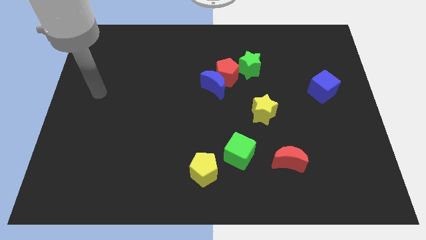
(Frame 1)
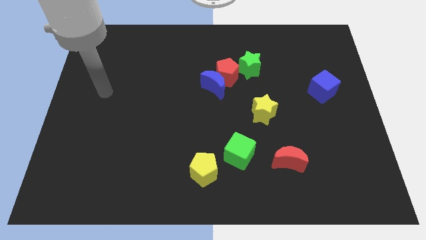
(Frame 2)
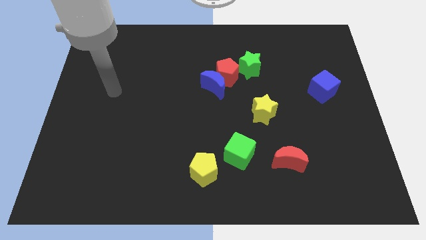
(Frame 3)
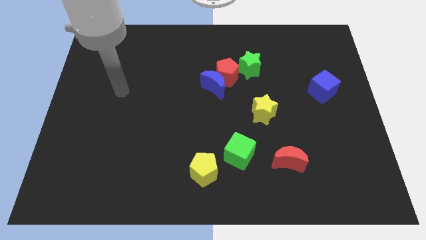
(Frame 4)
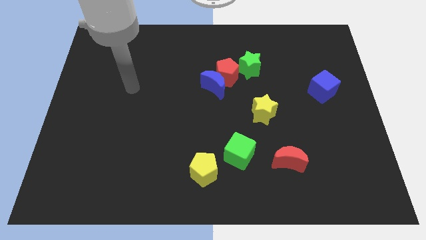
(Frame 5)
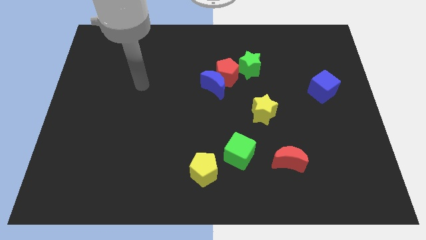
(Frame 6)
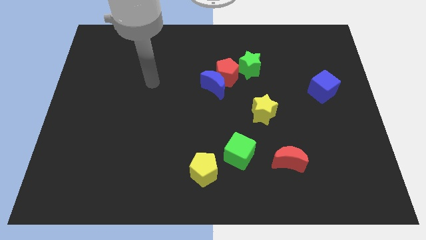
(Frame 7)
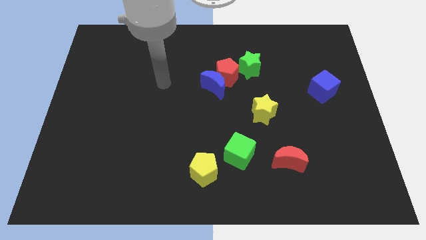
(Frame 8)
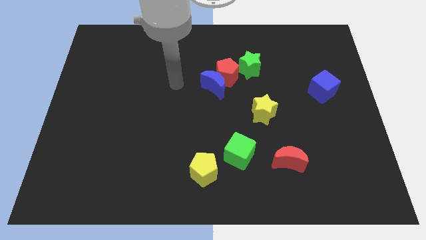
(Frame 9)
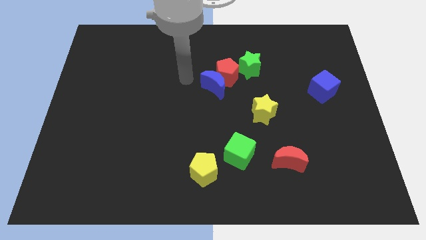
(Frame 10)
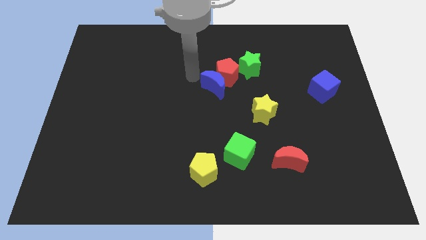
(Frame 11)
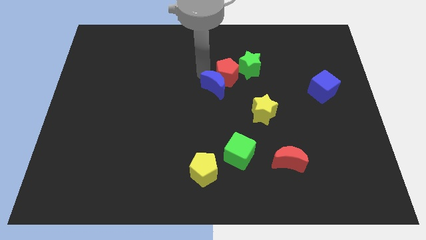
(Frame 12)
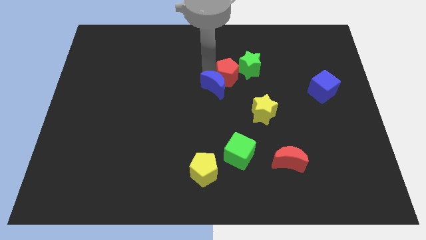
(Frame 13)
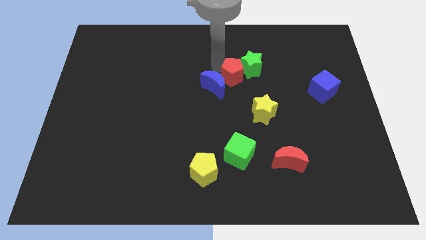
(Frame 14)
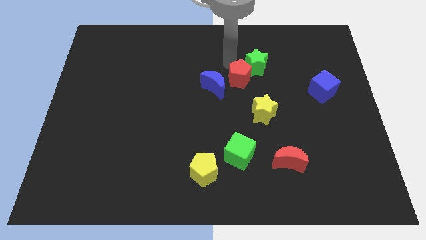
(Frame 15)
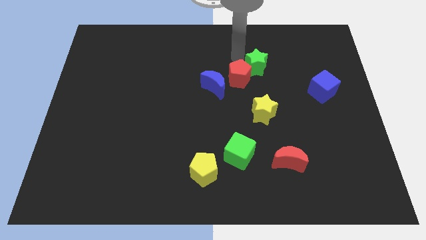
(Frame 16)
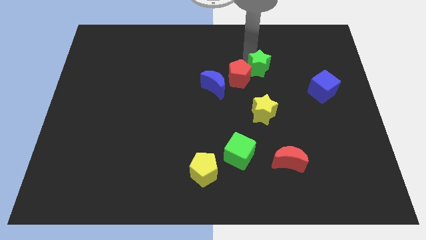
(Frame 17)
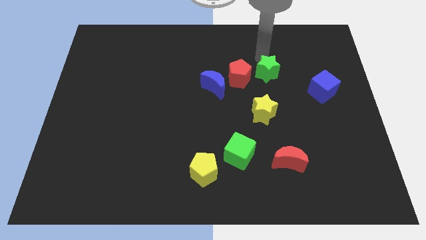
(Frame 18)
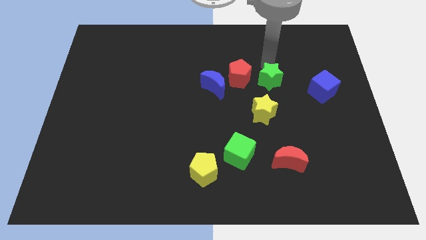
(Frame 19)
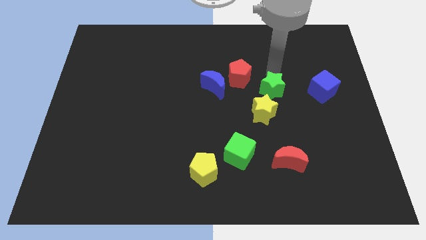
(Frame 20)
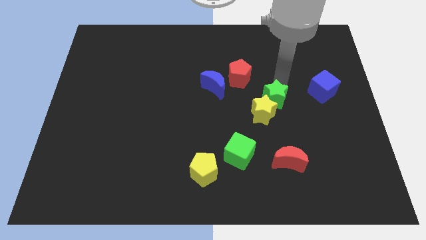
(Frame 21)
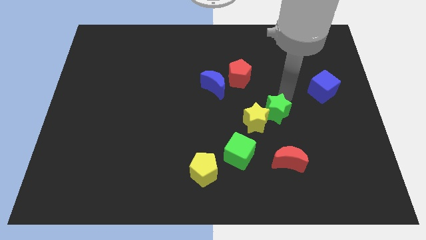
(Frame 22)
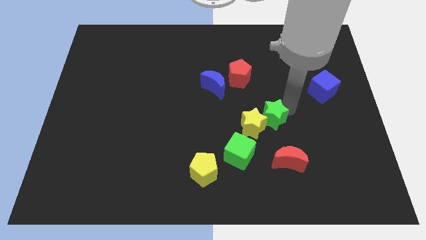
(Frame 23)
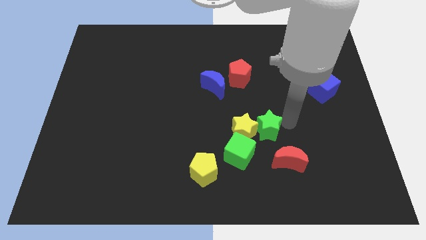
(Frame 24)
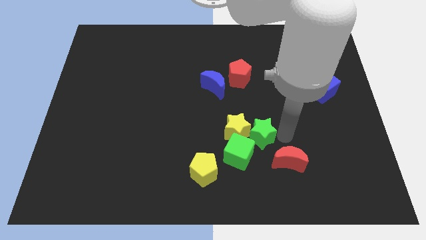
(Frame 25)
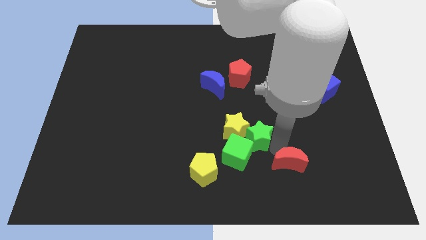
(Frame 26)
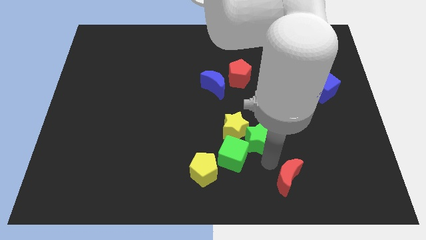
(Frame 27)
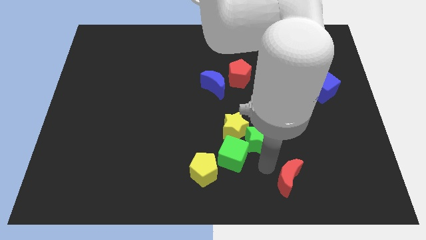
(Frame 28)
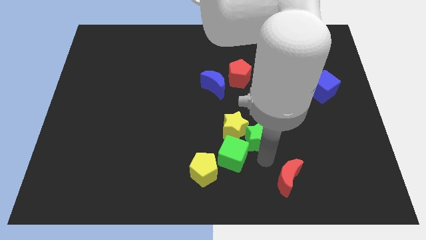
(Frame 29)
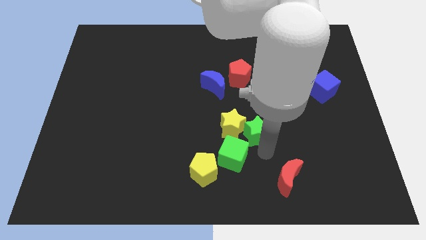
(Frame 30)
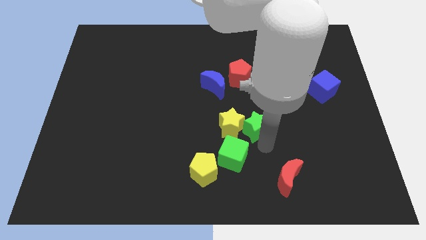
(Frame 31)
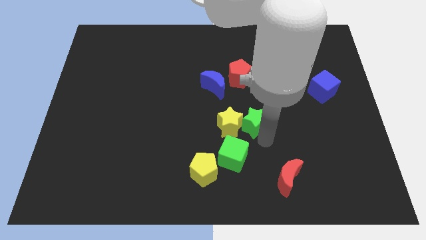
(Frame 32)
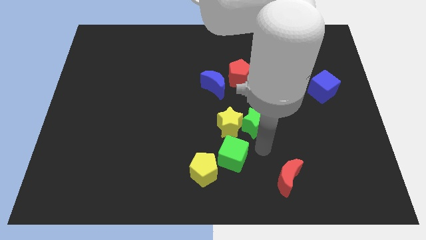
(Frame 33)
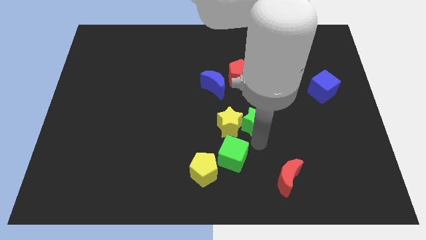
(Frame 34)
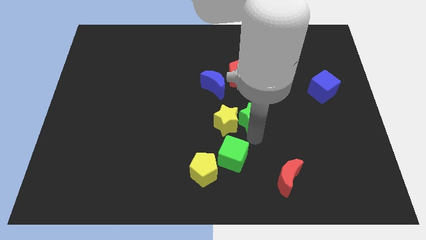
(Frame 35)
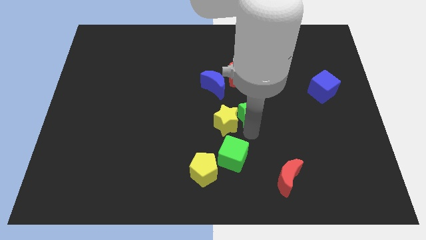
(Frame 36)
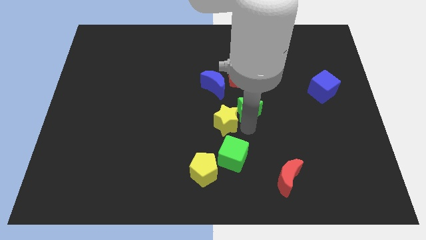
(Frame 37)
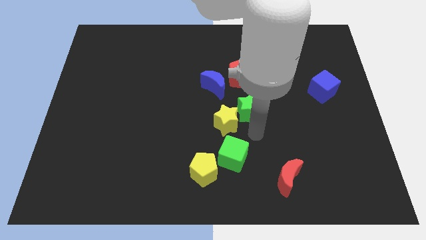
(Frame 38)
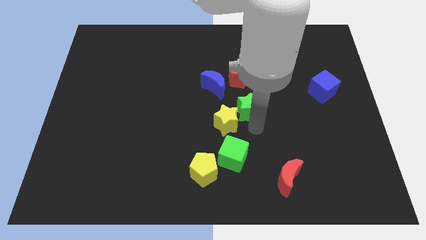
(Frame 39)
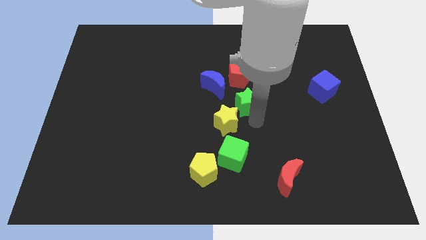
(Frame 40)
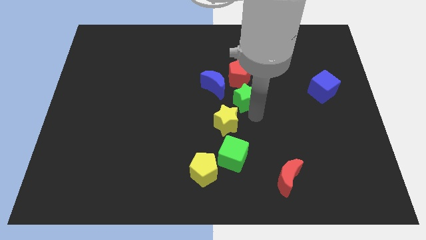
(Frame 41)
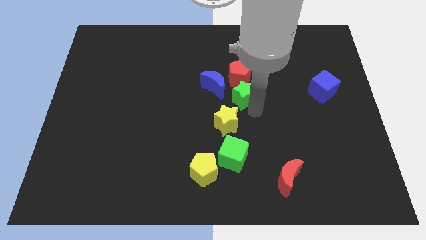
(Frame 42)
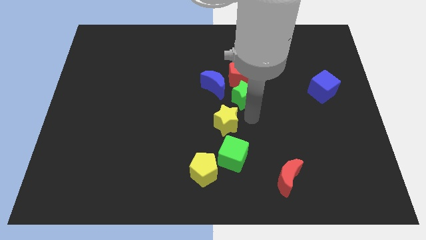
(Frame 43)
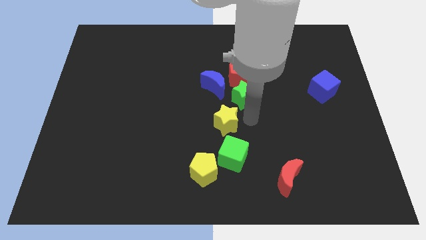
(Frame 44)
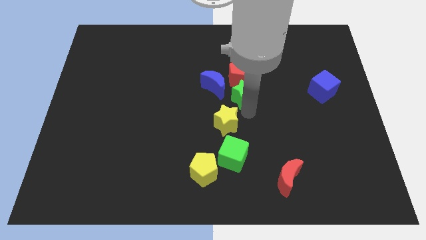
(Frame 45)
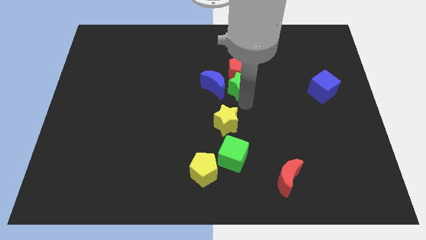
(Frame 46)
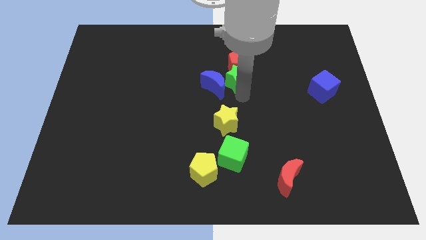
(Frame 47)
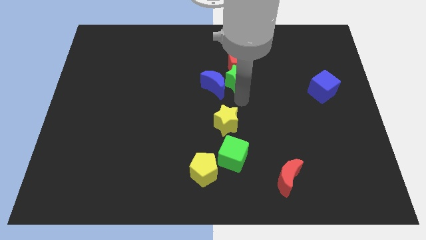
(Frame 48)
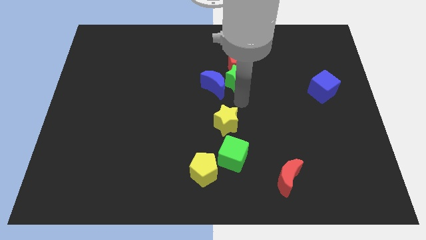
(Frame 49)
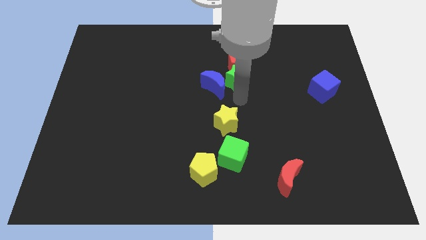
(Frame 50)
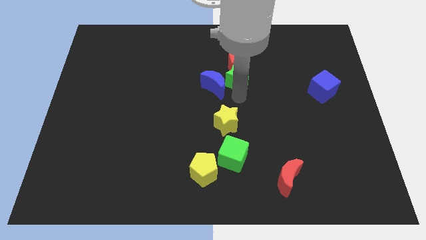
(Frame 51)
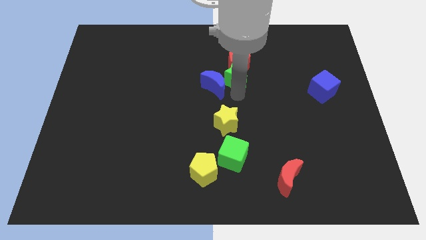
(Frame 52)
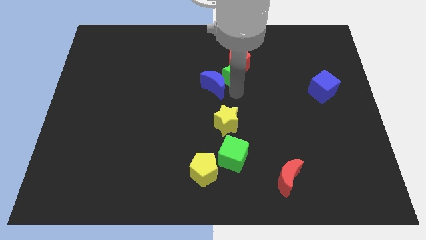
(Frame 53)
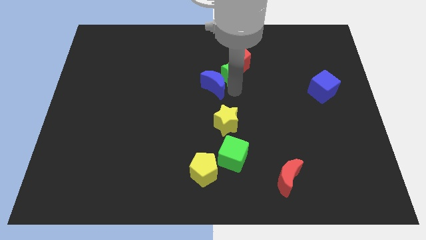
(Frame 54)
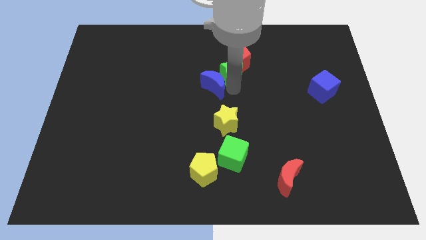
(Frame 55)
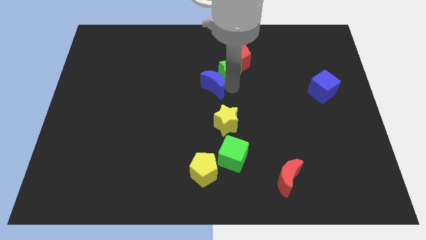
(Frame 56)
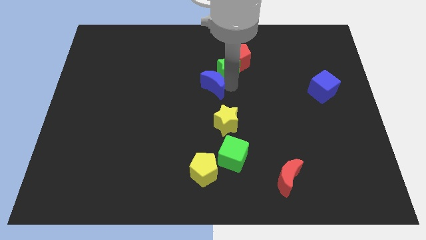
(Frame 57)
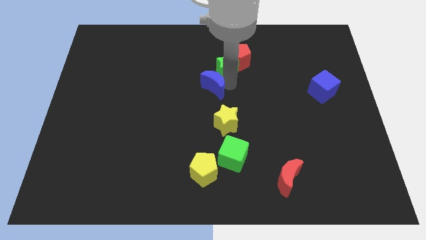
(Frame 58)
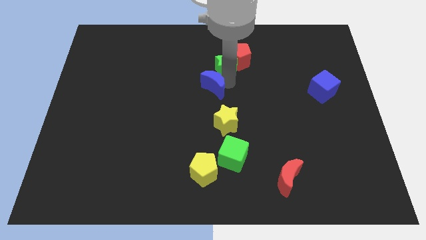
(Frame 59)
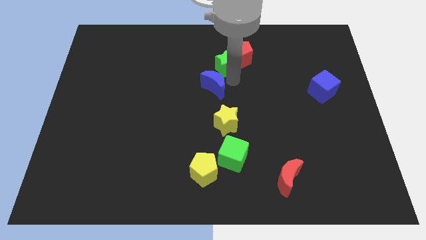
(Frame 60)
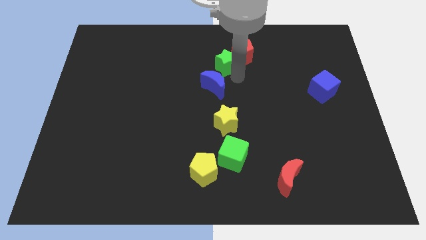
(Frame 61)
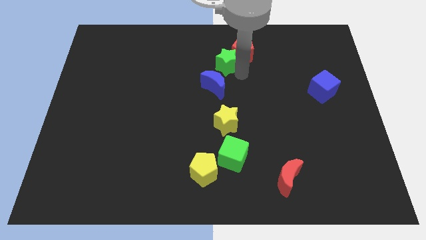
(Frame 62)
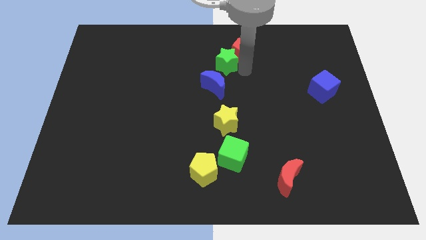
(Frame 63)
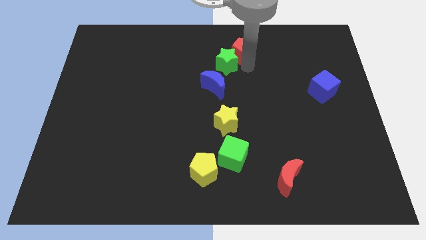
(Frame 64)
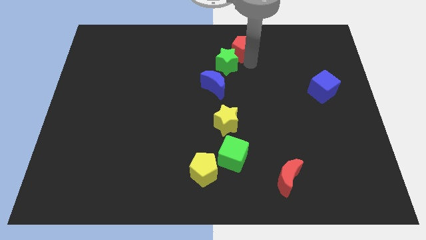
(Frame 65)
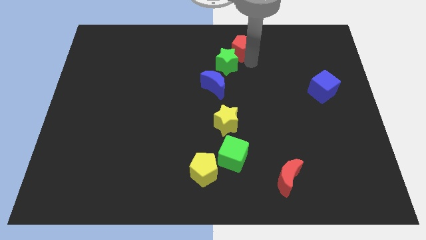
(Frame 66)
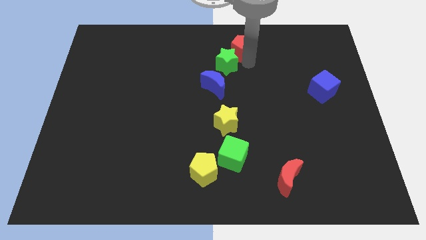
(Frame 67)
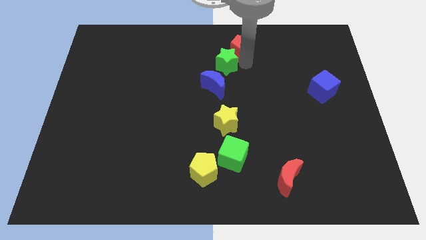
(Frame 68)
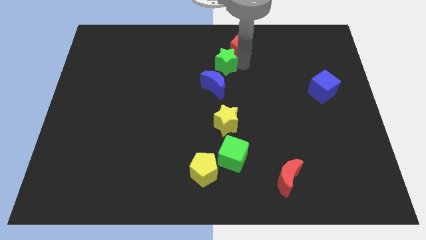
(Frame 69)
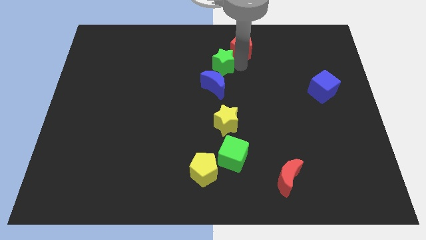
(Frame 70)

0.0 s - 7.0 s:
move the green star to the left slightly

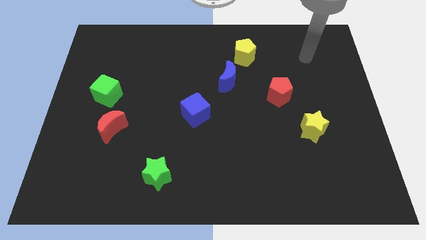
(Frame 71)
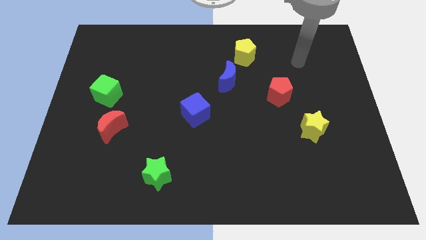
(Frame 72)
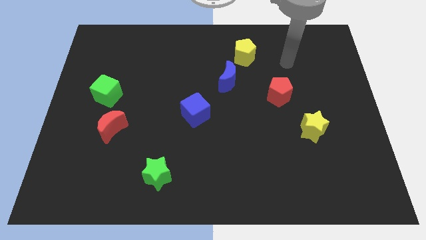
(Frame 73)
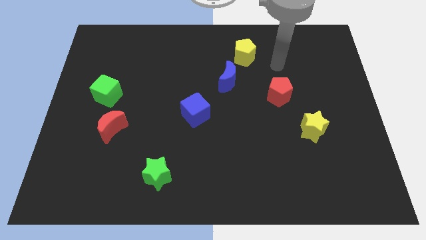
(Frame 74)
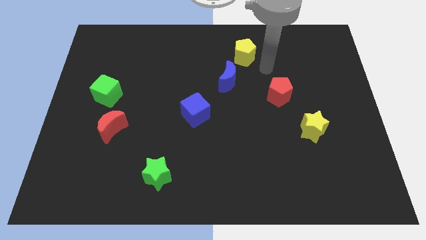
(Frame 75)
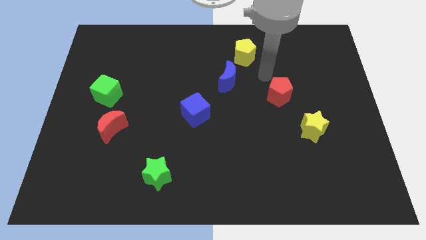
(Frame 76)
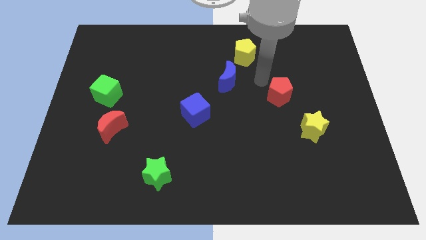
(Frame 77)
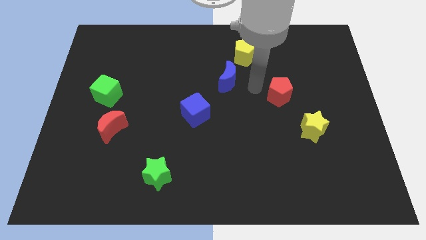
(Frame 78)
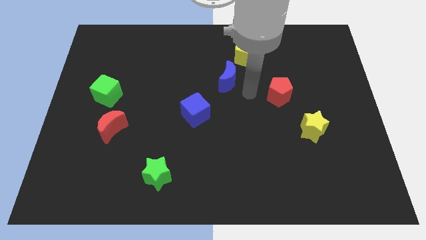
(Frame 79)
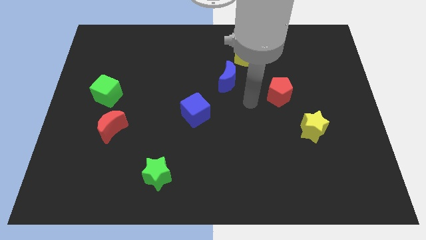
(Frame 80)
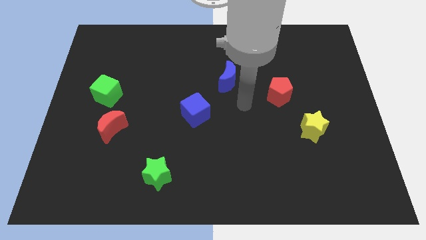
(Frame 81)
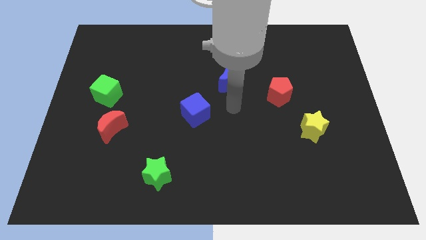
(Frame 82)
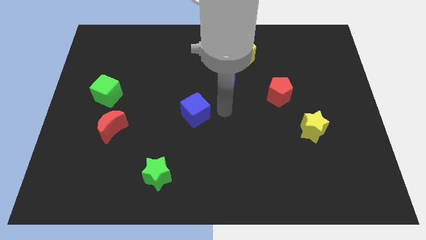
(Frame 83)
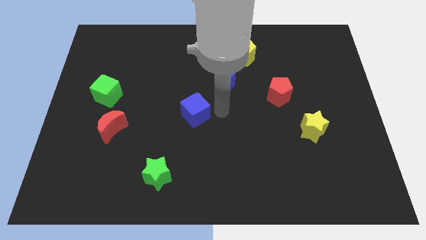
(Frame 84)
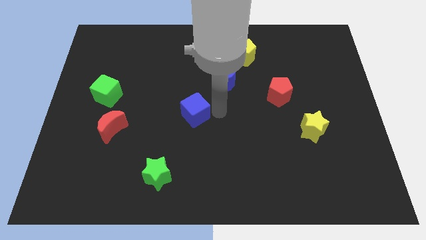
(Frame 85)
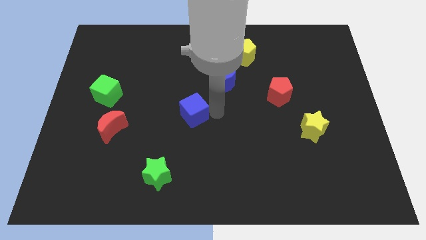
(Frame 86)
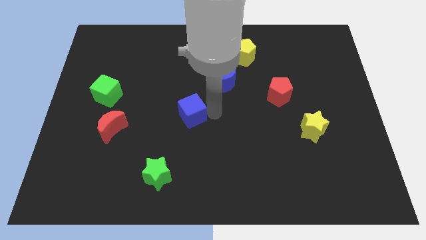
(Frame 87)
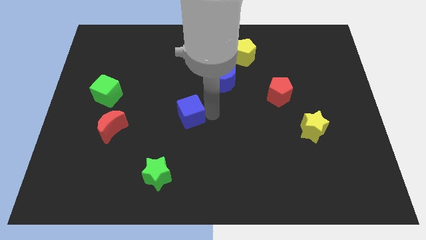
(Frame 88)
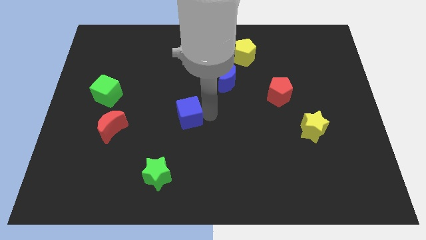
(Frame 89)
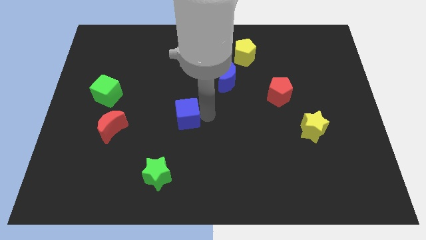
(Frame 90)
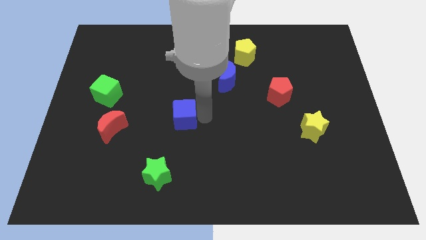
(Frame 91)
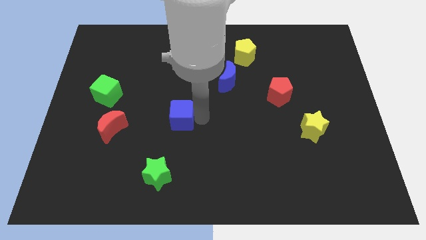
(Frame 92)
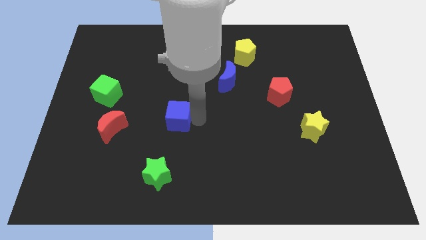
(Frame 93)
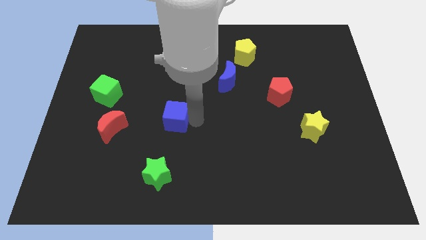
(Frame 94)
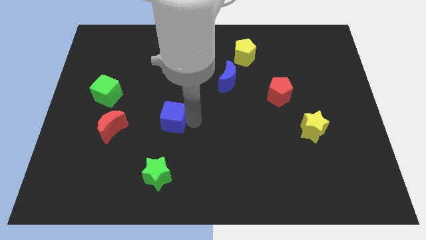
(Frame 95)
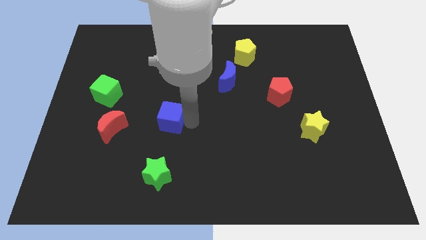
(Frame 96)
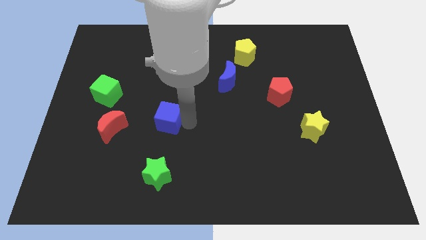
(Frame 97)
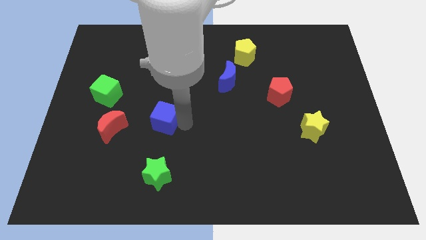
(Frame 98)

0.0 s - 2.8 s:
slide the blue cube left a bit
